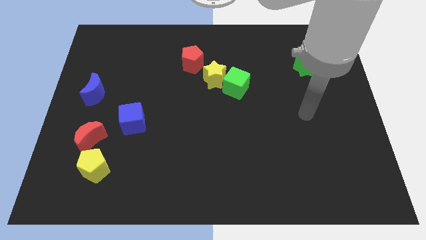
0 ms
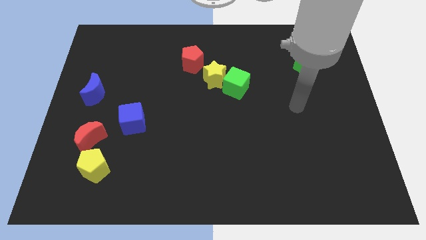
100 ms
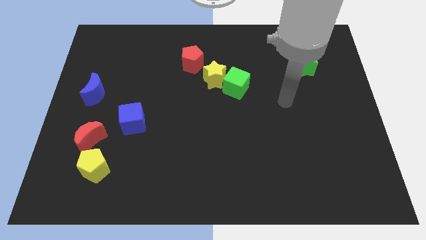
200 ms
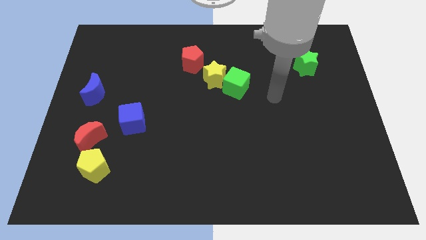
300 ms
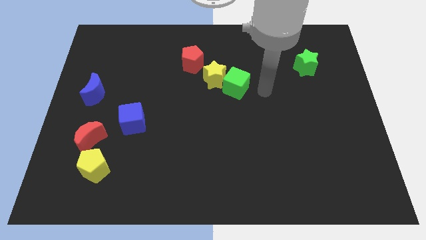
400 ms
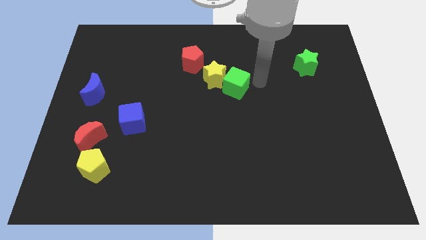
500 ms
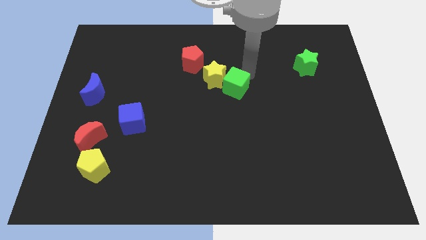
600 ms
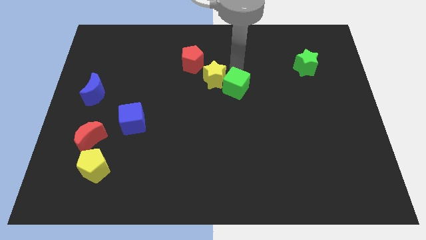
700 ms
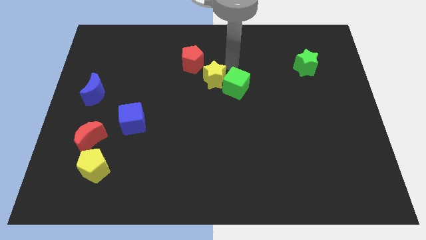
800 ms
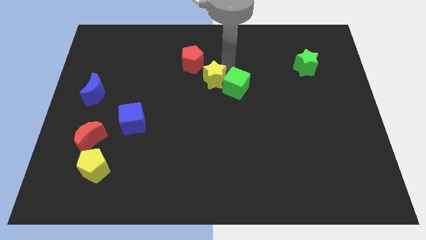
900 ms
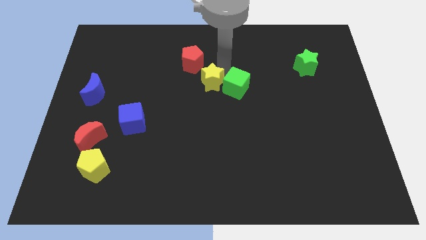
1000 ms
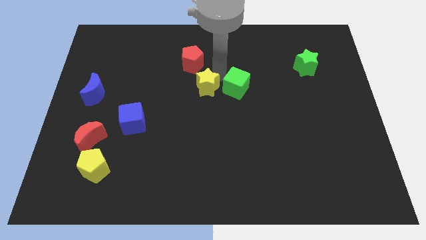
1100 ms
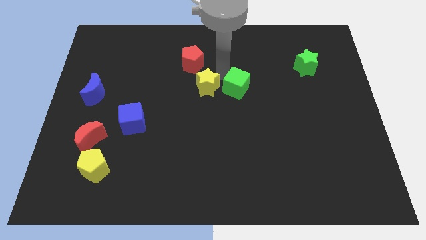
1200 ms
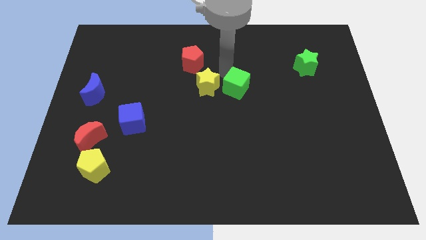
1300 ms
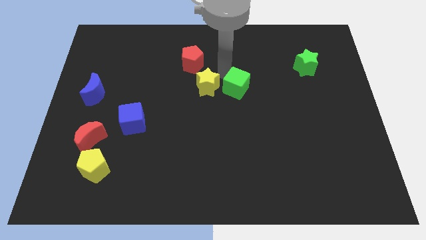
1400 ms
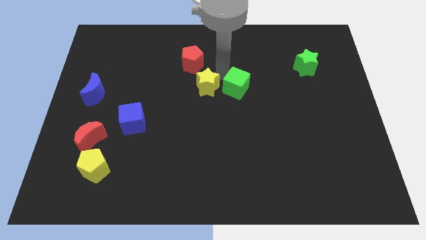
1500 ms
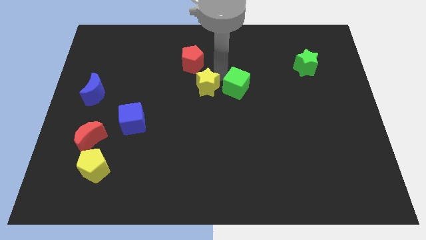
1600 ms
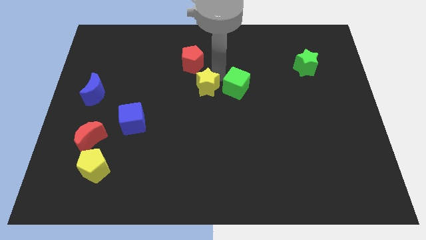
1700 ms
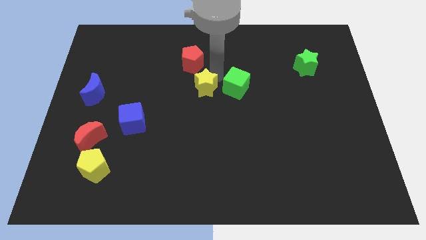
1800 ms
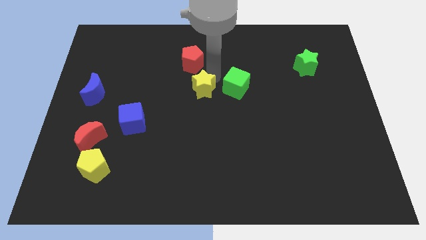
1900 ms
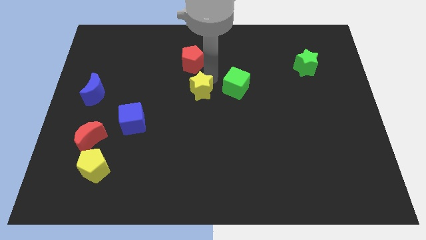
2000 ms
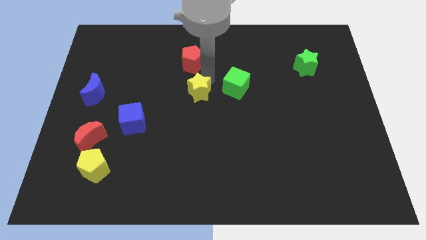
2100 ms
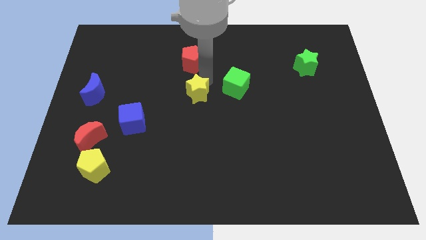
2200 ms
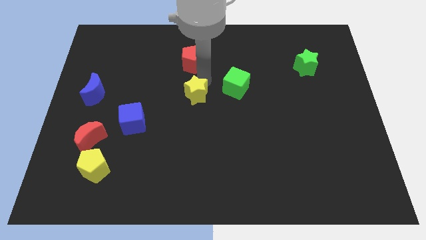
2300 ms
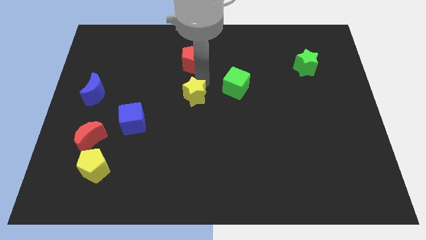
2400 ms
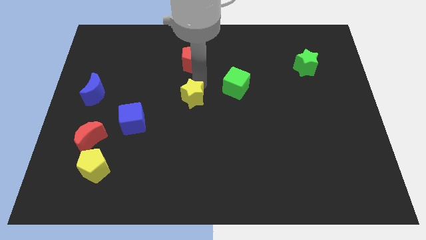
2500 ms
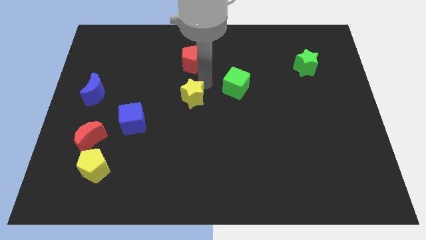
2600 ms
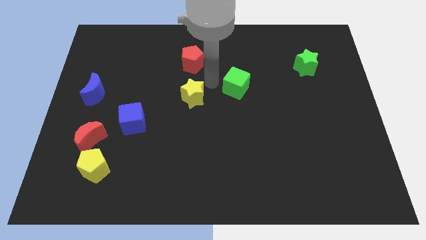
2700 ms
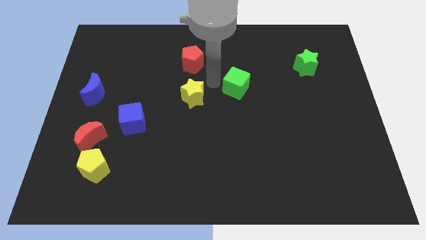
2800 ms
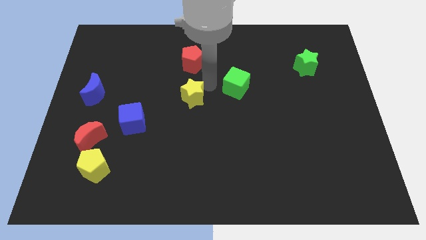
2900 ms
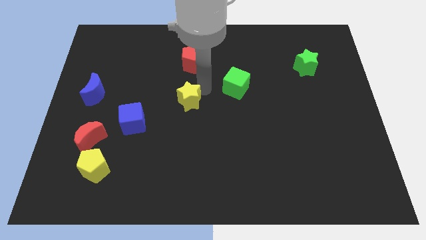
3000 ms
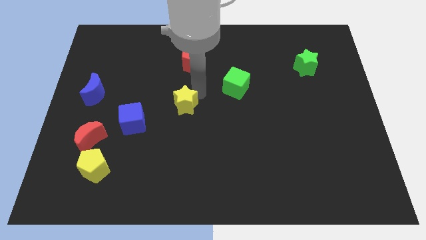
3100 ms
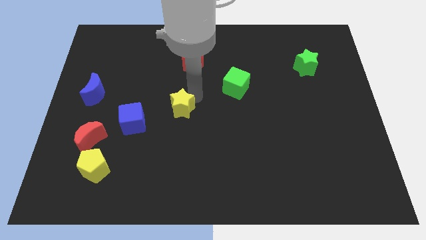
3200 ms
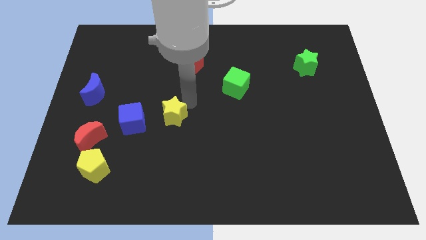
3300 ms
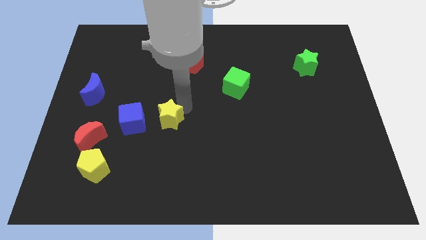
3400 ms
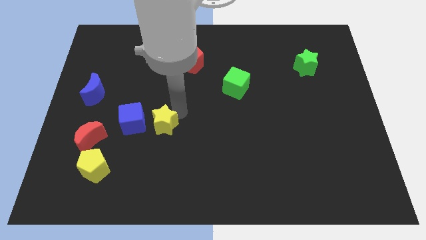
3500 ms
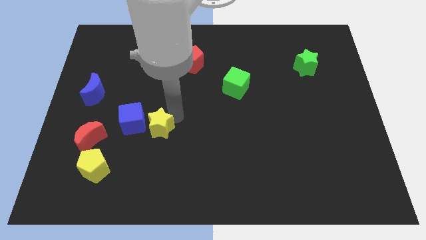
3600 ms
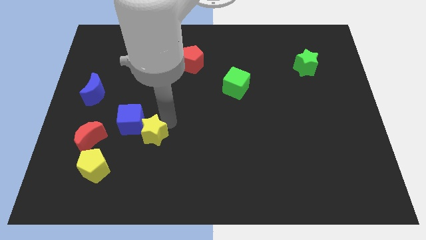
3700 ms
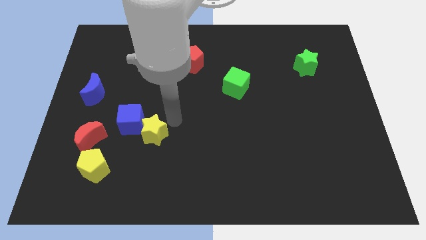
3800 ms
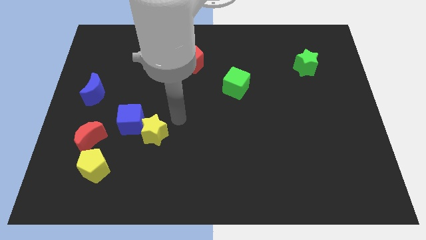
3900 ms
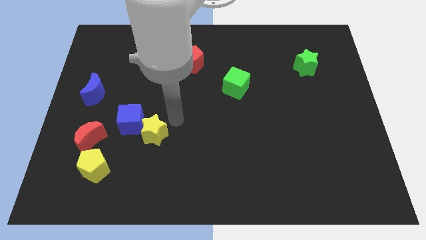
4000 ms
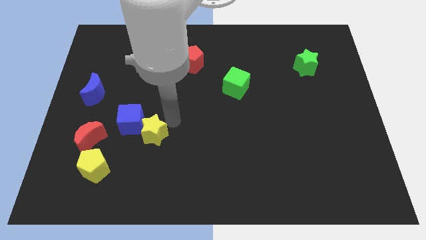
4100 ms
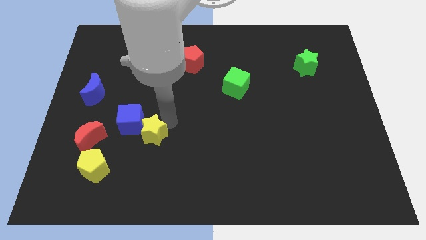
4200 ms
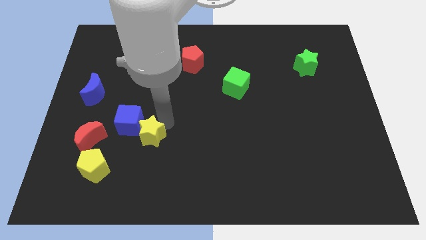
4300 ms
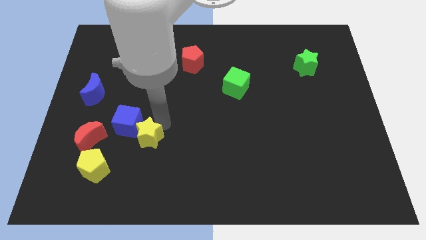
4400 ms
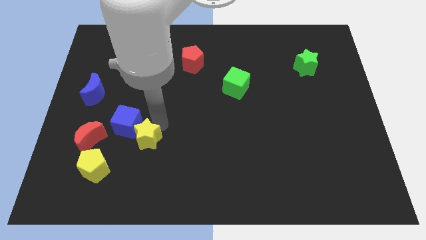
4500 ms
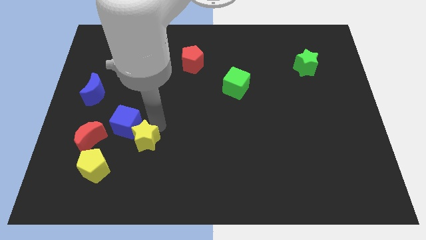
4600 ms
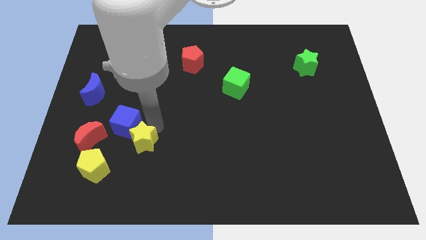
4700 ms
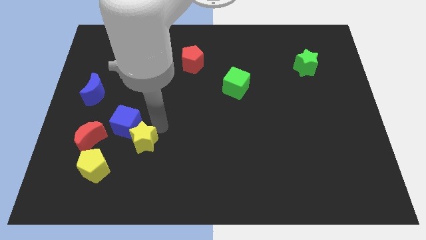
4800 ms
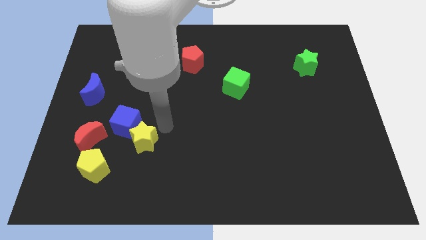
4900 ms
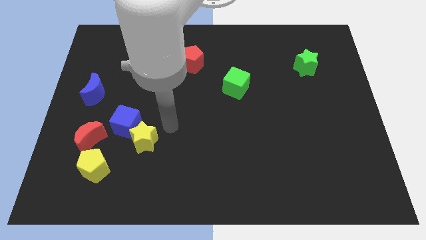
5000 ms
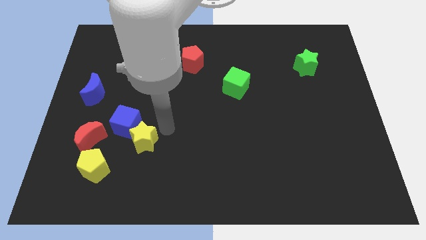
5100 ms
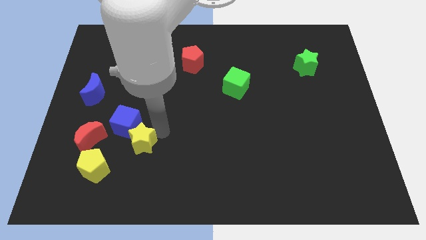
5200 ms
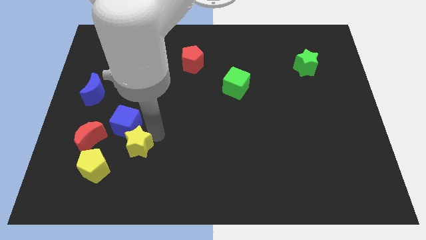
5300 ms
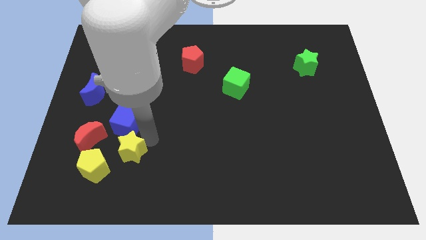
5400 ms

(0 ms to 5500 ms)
move the yellow star diagonally down and to the right of the red moon

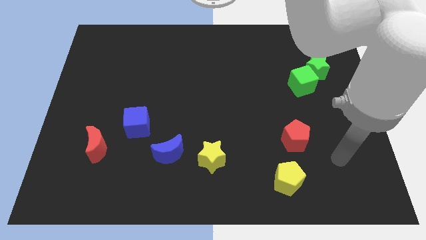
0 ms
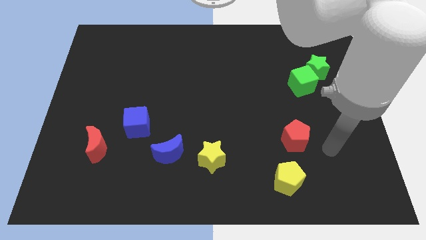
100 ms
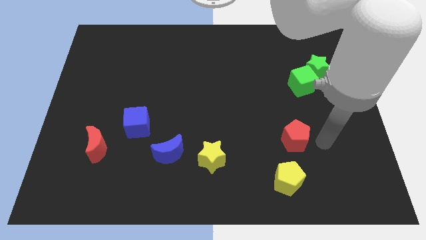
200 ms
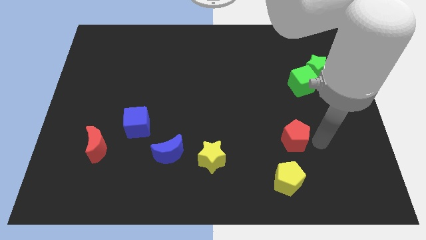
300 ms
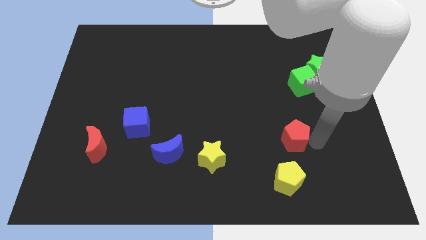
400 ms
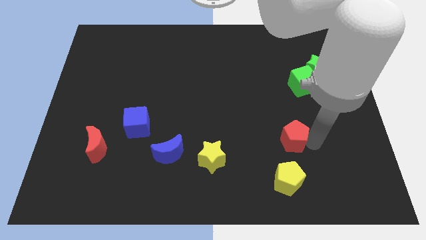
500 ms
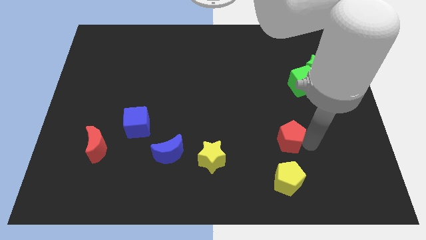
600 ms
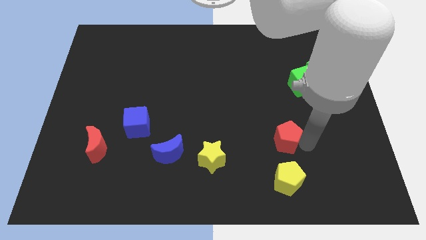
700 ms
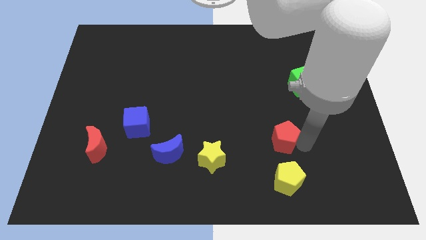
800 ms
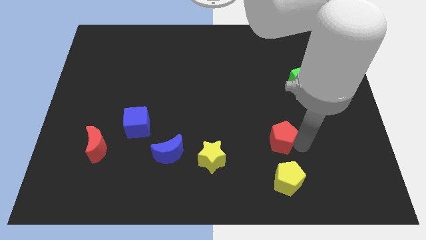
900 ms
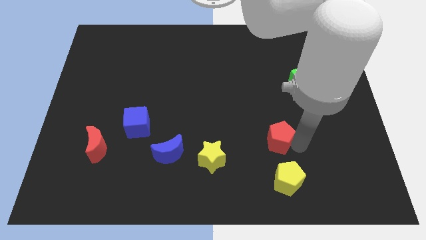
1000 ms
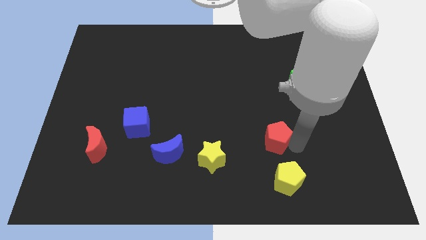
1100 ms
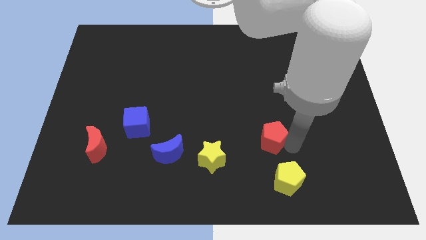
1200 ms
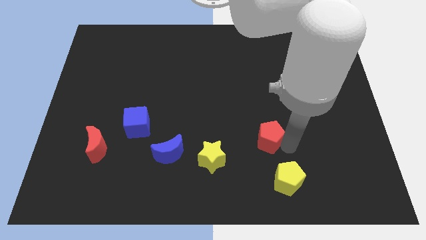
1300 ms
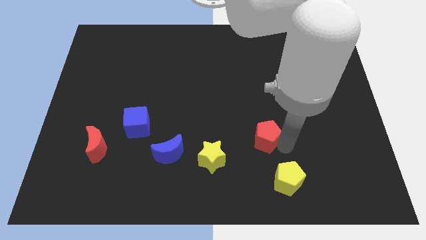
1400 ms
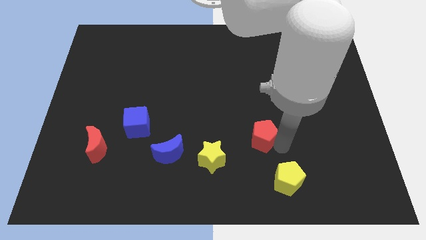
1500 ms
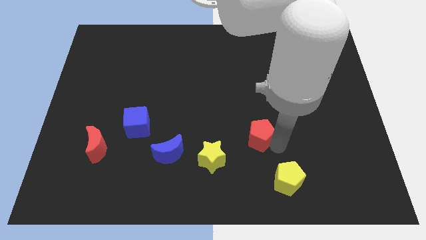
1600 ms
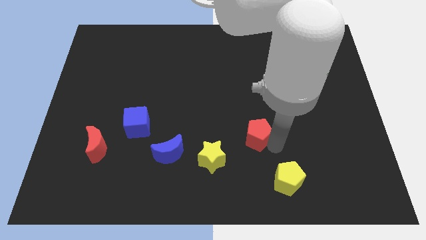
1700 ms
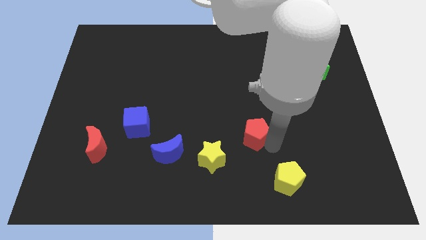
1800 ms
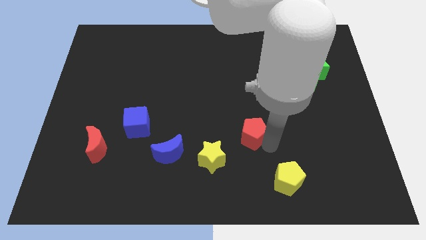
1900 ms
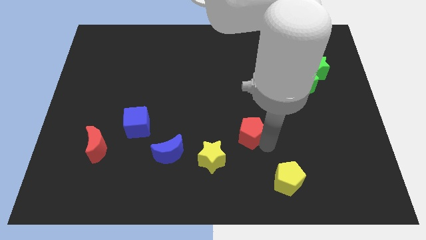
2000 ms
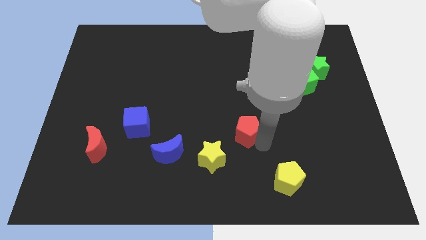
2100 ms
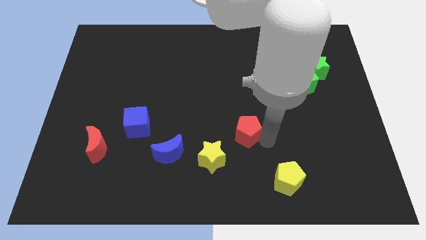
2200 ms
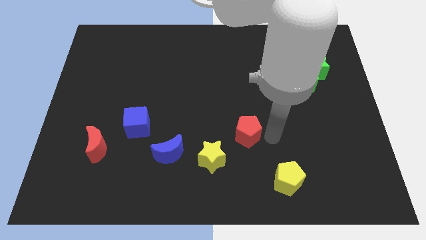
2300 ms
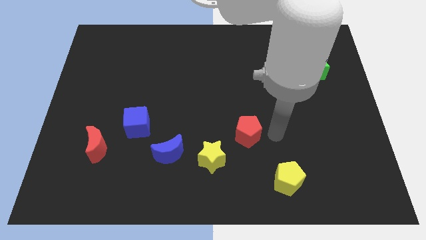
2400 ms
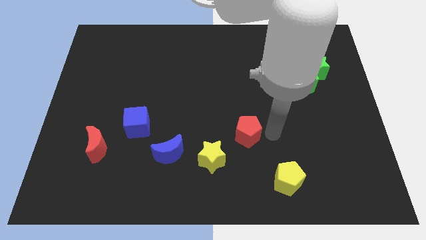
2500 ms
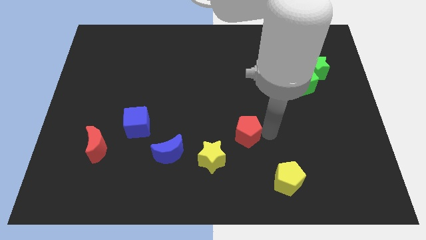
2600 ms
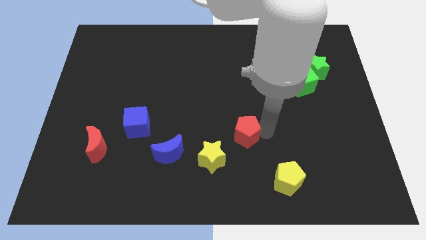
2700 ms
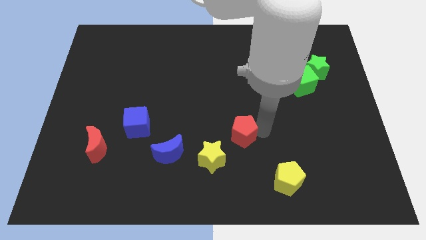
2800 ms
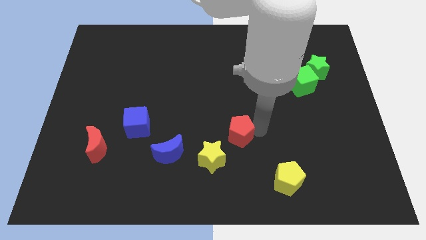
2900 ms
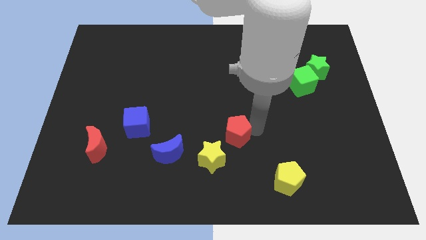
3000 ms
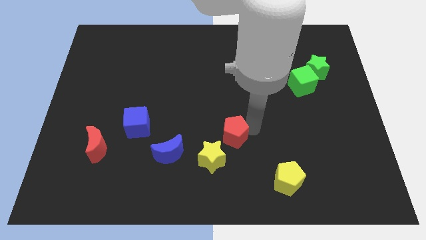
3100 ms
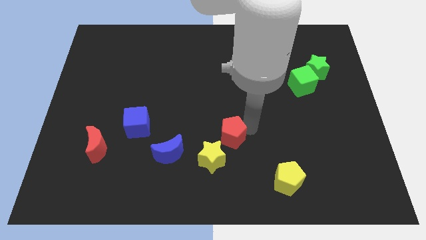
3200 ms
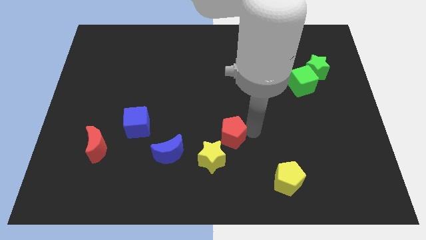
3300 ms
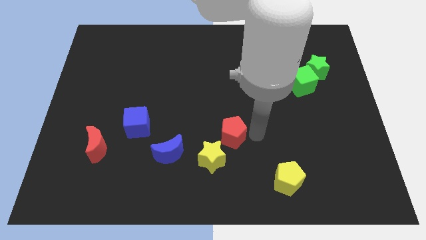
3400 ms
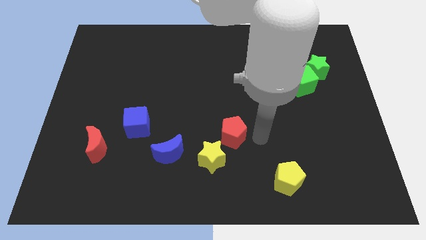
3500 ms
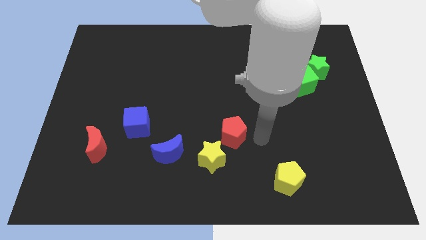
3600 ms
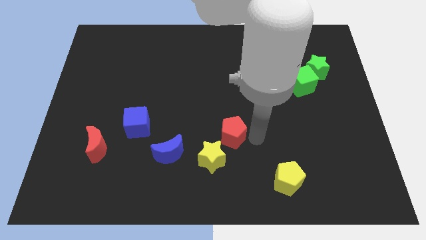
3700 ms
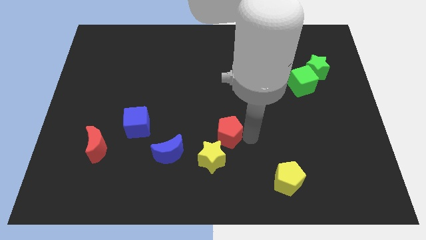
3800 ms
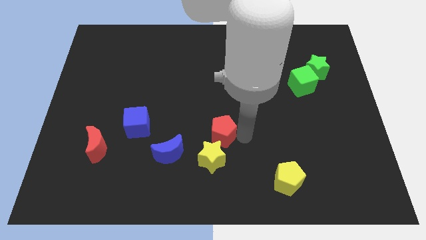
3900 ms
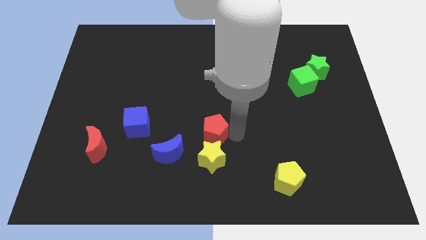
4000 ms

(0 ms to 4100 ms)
put the red pentagon to the top left side of the yellow star
